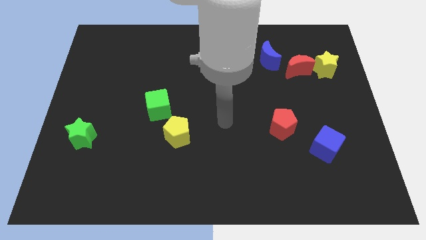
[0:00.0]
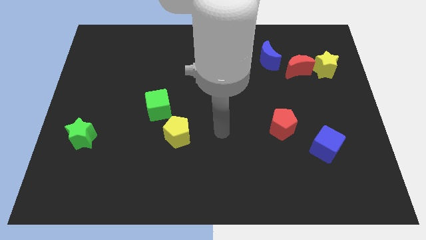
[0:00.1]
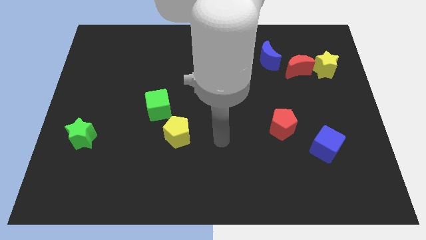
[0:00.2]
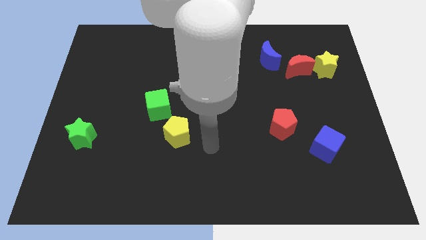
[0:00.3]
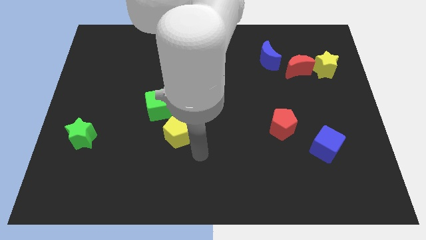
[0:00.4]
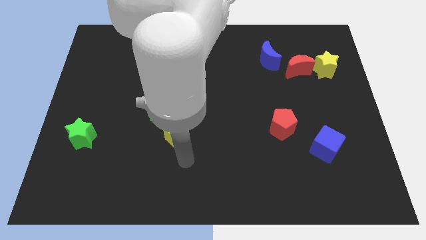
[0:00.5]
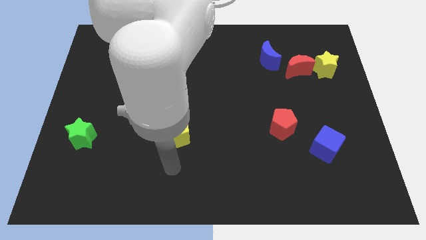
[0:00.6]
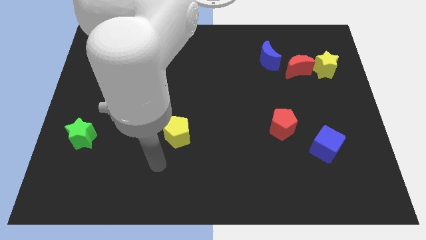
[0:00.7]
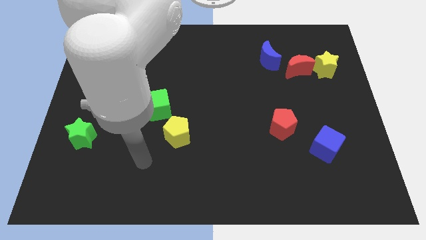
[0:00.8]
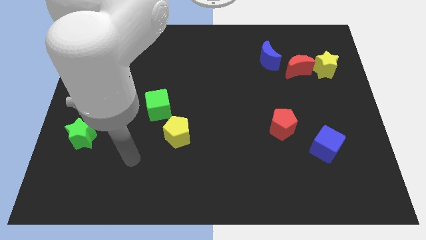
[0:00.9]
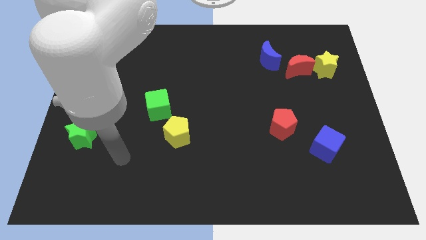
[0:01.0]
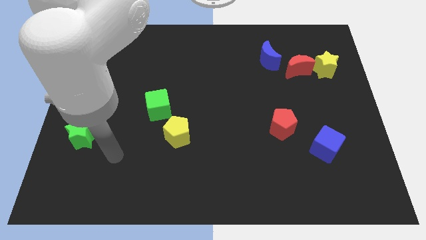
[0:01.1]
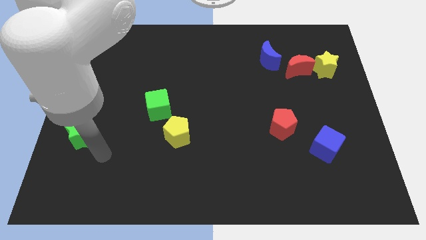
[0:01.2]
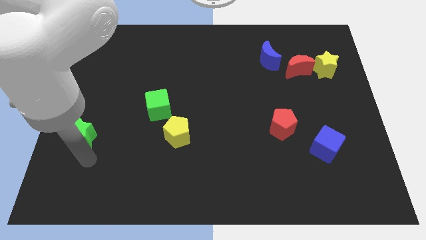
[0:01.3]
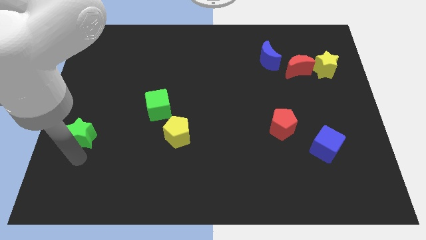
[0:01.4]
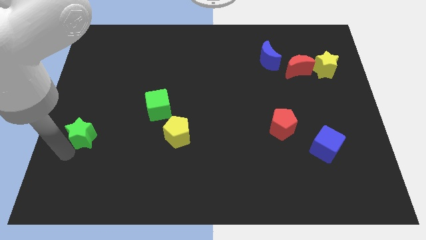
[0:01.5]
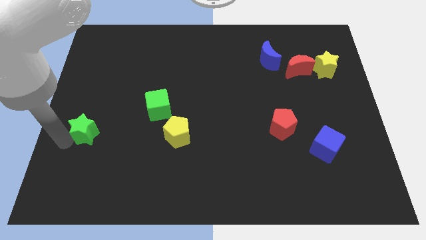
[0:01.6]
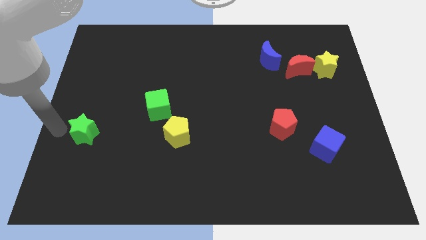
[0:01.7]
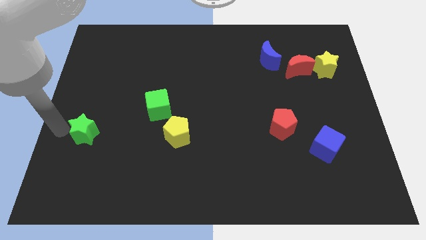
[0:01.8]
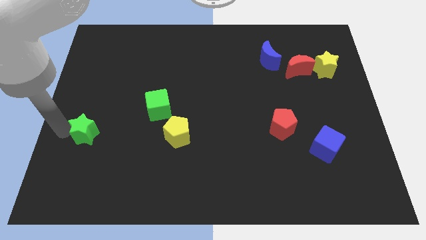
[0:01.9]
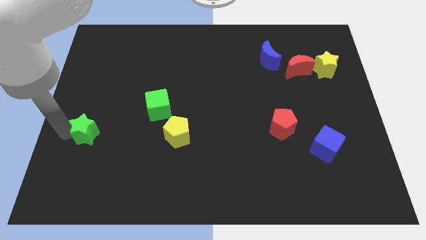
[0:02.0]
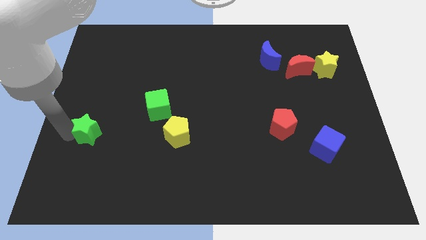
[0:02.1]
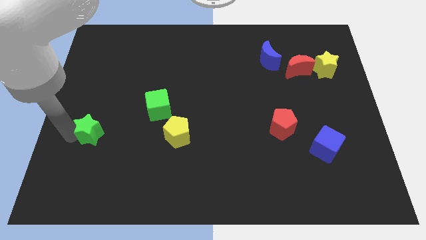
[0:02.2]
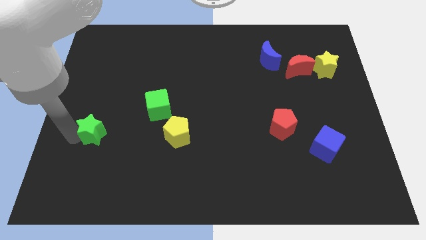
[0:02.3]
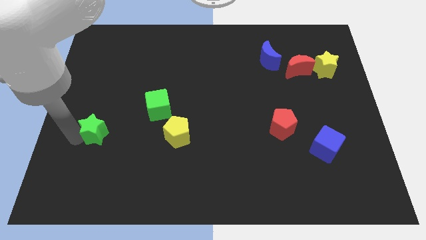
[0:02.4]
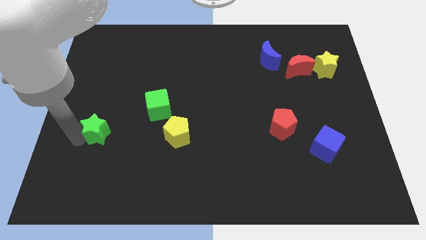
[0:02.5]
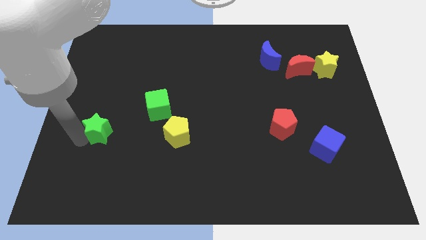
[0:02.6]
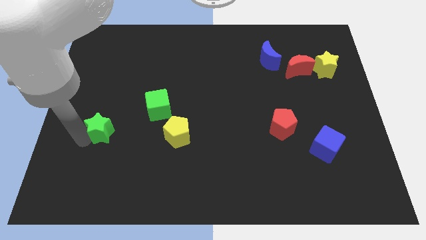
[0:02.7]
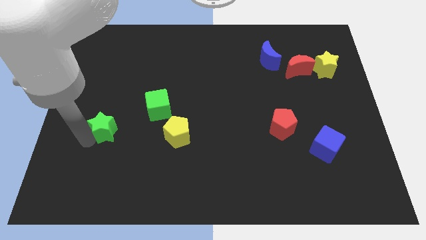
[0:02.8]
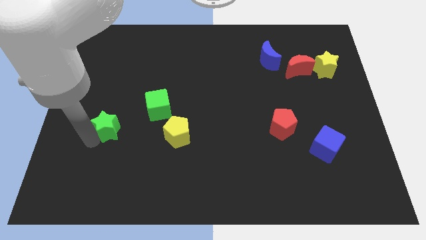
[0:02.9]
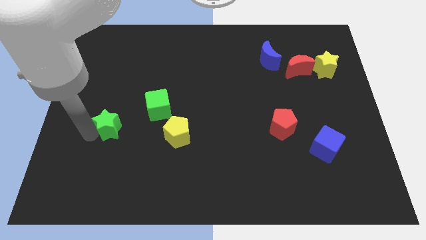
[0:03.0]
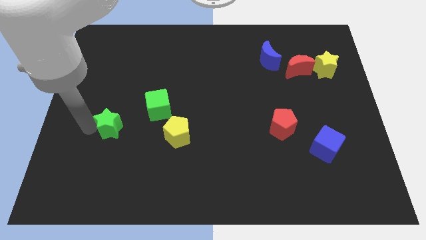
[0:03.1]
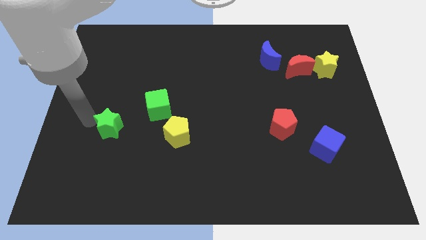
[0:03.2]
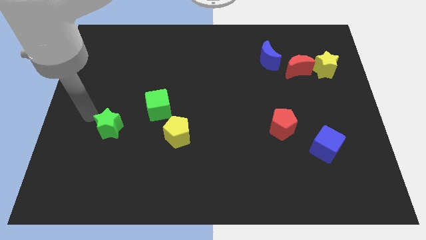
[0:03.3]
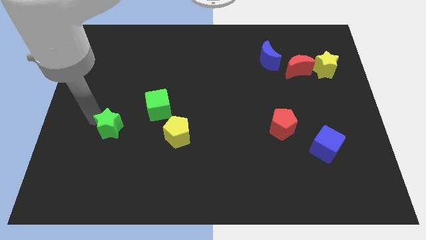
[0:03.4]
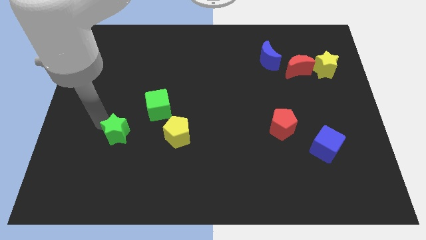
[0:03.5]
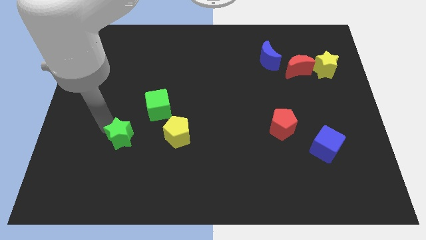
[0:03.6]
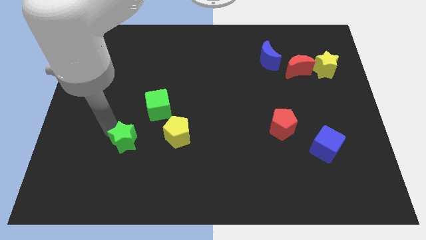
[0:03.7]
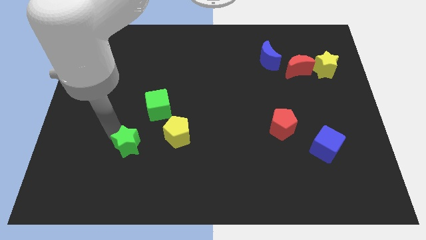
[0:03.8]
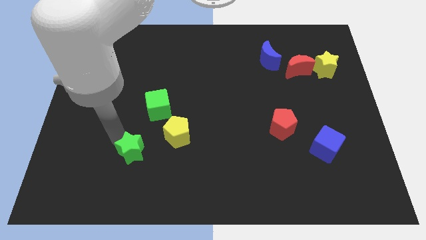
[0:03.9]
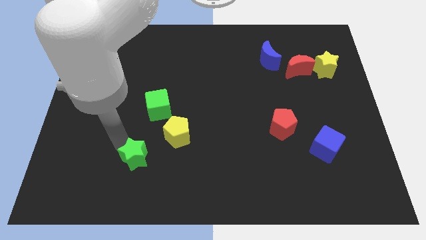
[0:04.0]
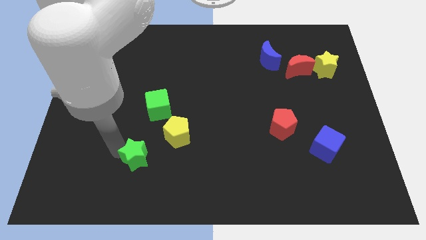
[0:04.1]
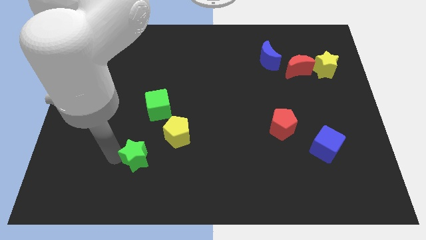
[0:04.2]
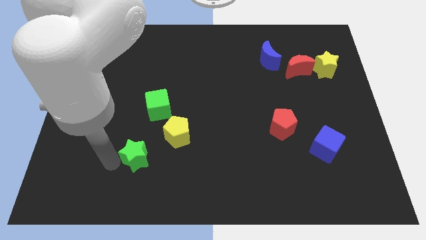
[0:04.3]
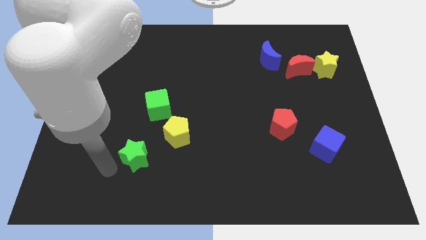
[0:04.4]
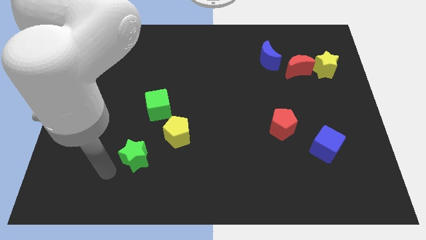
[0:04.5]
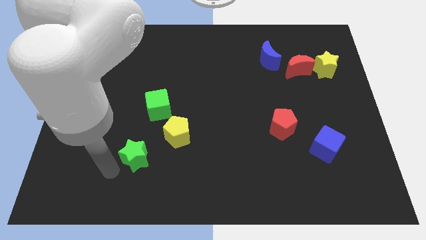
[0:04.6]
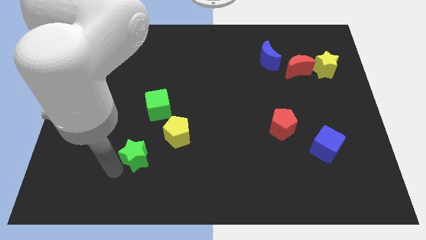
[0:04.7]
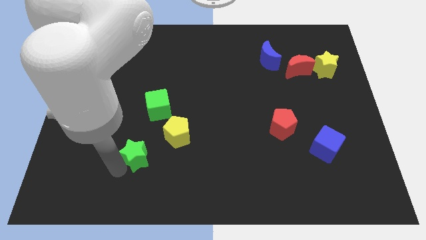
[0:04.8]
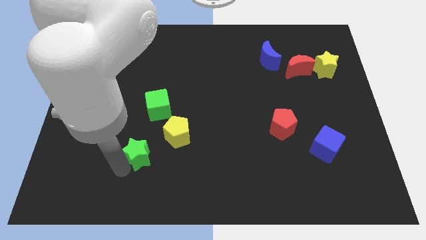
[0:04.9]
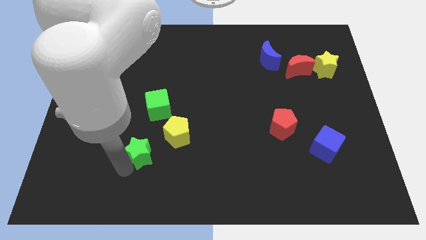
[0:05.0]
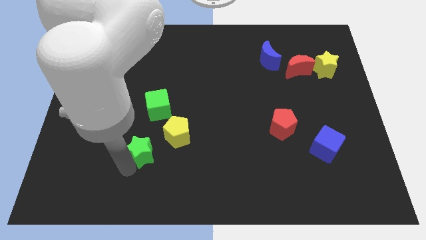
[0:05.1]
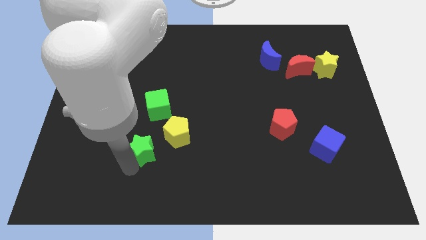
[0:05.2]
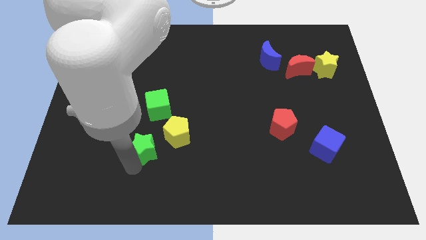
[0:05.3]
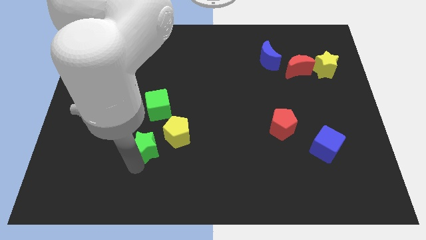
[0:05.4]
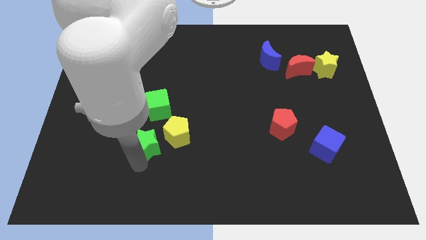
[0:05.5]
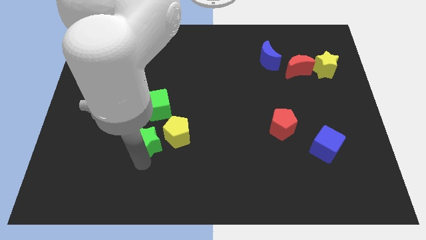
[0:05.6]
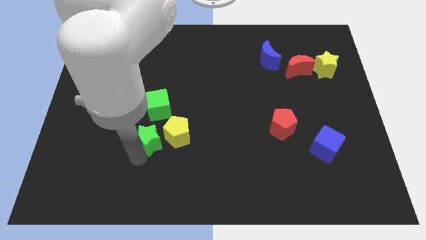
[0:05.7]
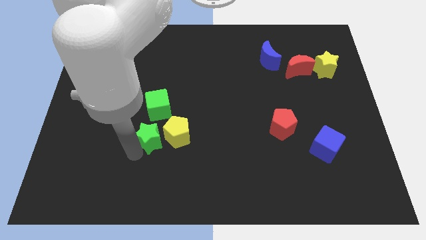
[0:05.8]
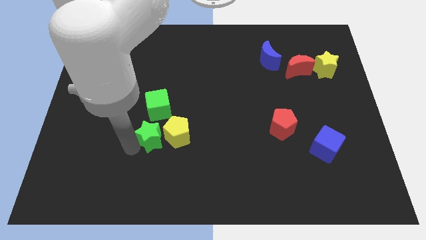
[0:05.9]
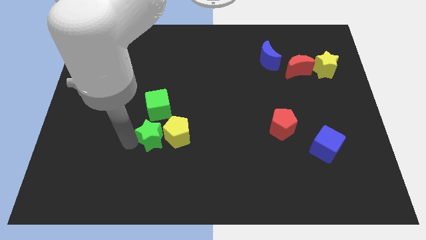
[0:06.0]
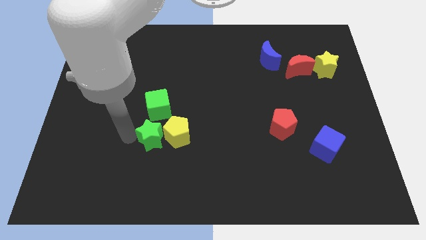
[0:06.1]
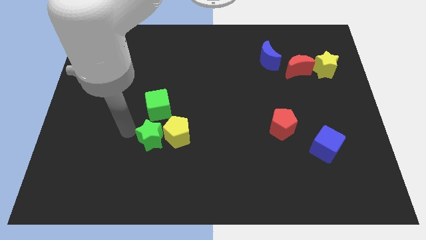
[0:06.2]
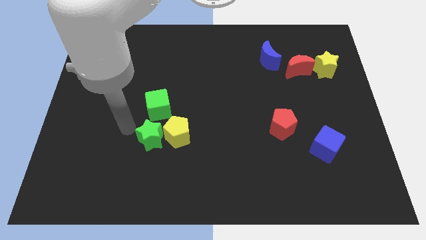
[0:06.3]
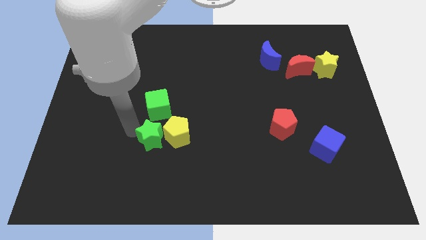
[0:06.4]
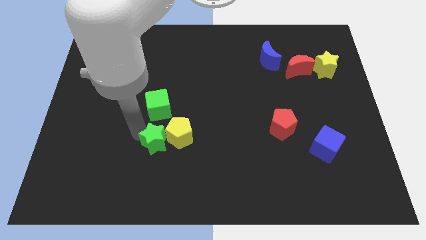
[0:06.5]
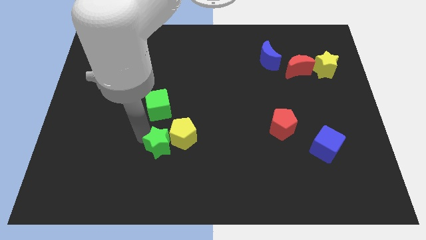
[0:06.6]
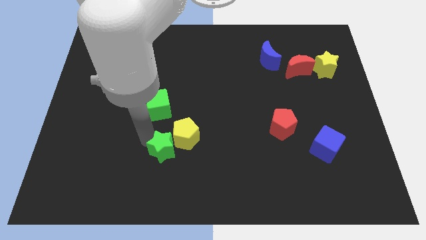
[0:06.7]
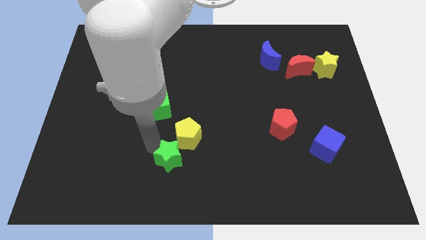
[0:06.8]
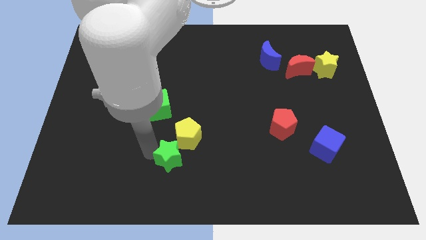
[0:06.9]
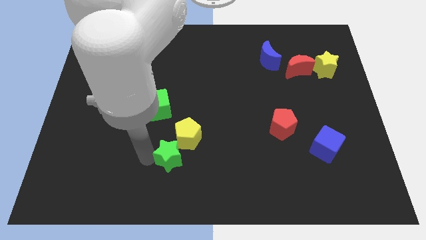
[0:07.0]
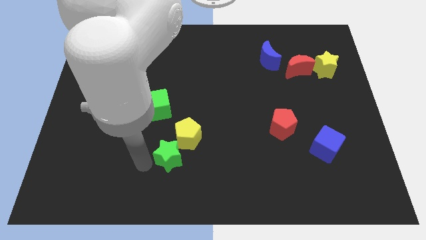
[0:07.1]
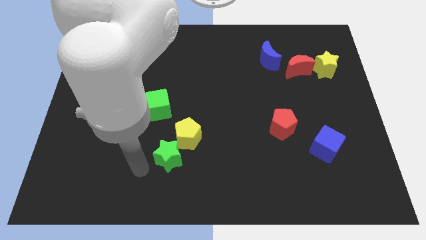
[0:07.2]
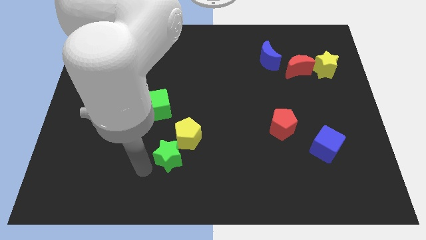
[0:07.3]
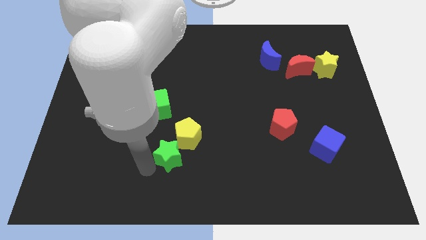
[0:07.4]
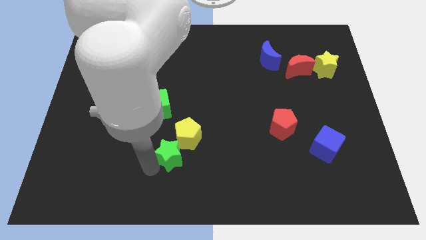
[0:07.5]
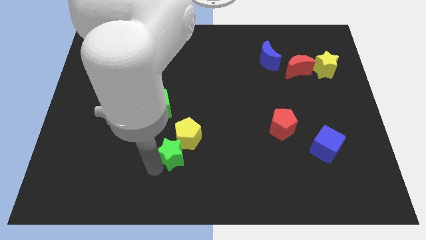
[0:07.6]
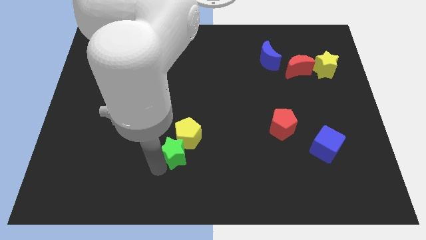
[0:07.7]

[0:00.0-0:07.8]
push the green star to the right
